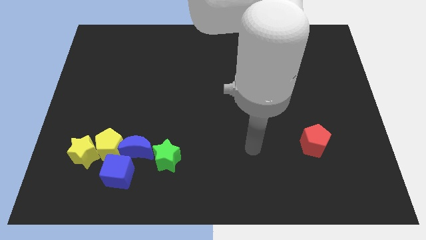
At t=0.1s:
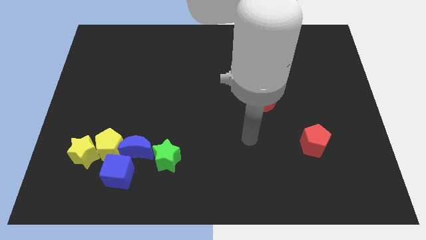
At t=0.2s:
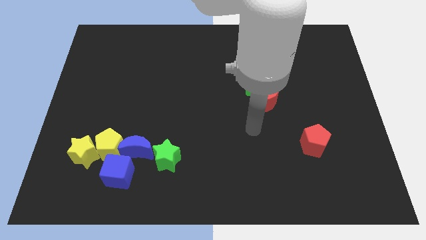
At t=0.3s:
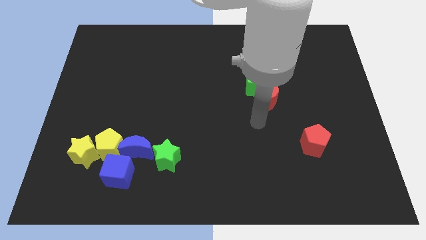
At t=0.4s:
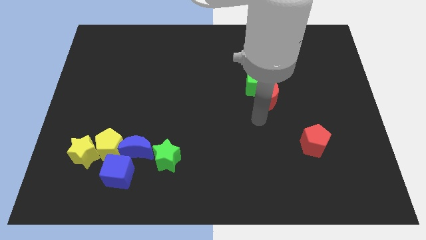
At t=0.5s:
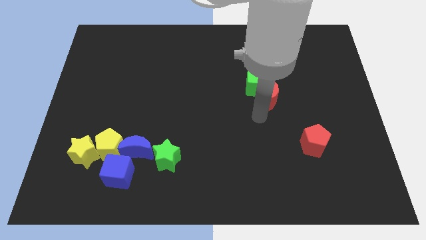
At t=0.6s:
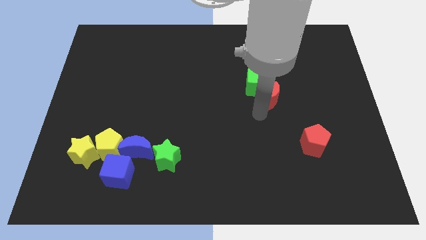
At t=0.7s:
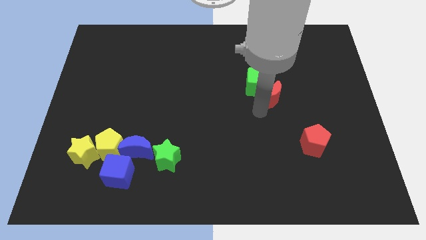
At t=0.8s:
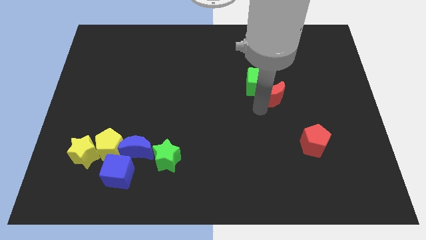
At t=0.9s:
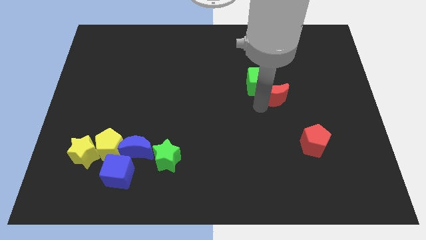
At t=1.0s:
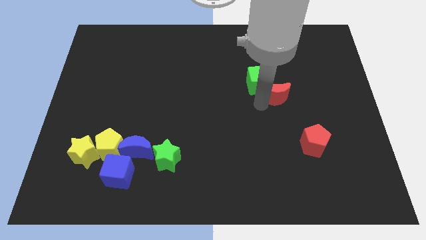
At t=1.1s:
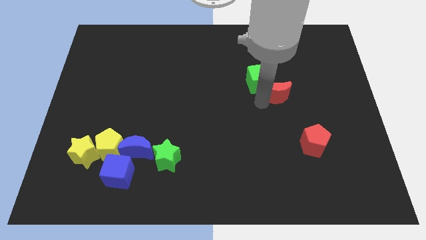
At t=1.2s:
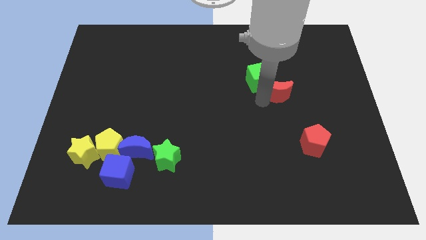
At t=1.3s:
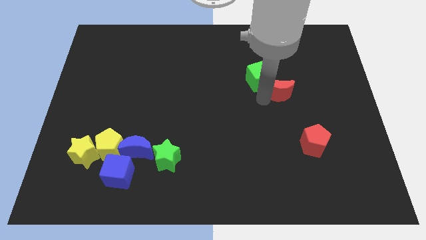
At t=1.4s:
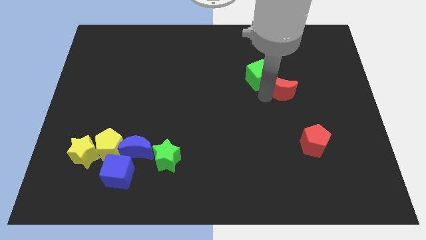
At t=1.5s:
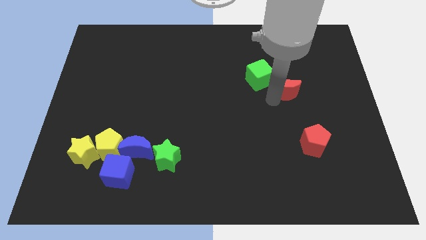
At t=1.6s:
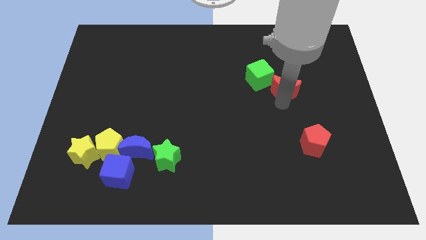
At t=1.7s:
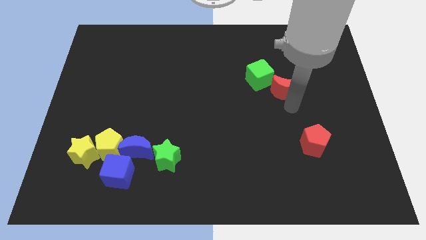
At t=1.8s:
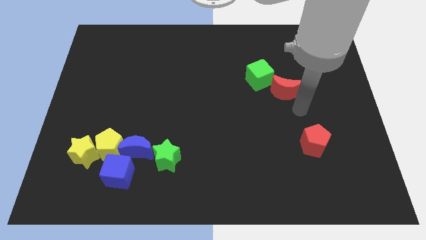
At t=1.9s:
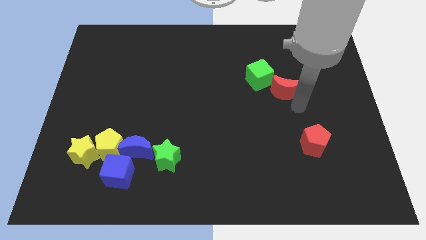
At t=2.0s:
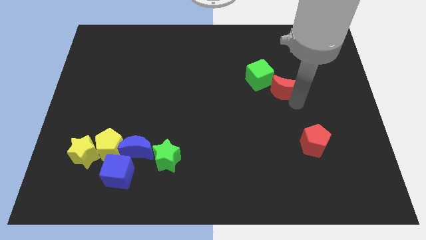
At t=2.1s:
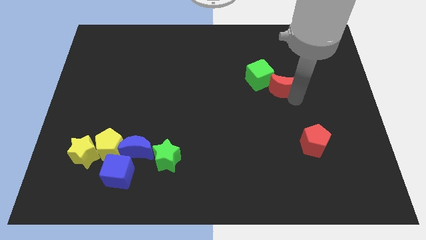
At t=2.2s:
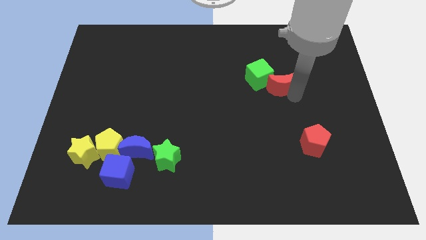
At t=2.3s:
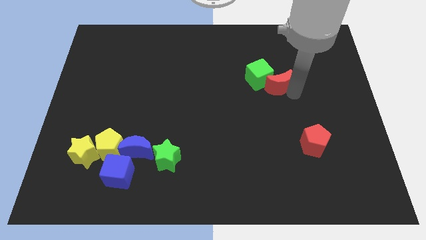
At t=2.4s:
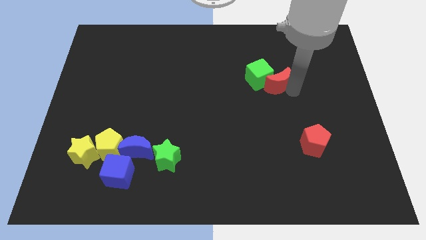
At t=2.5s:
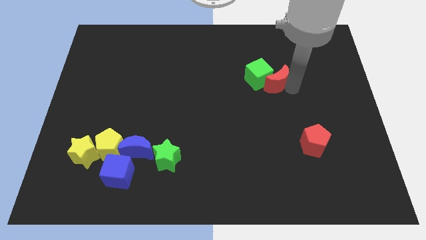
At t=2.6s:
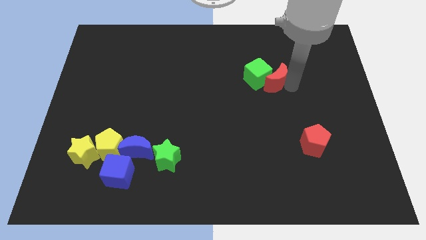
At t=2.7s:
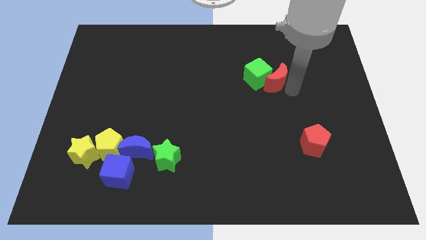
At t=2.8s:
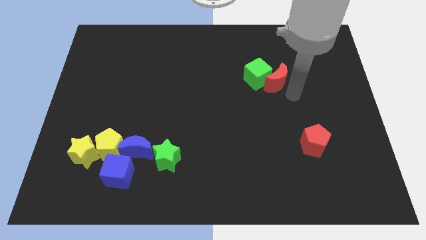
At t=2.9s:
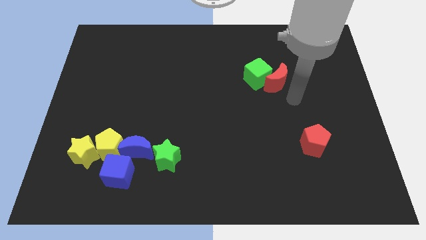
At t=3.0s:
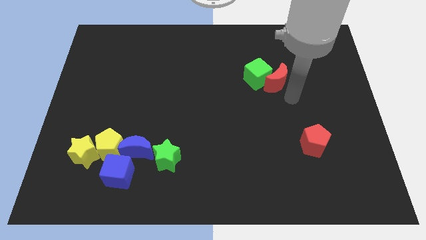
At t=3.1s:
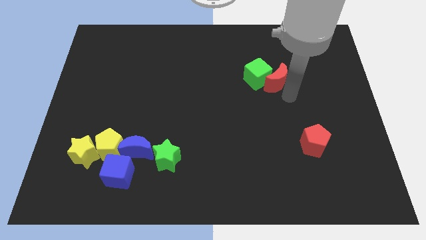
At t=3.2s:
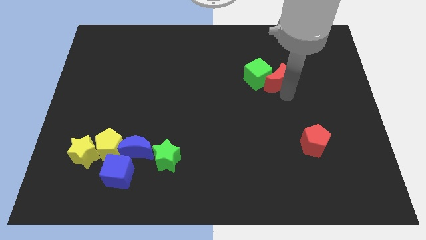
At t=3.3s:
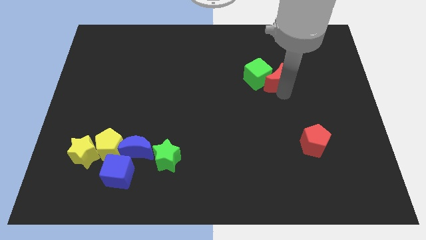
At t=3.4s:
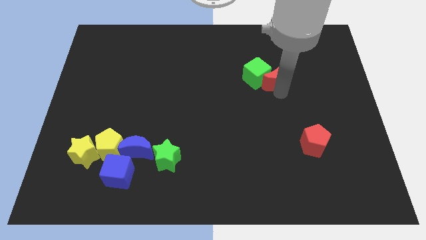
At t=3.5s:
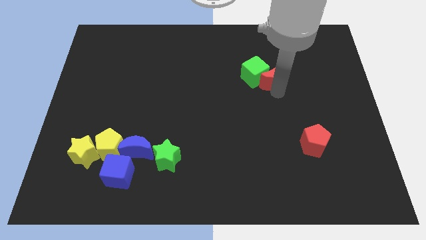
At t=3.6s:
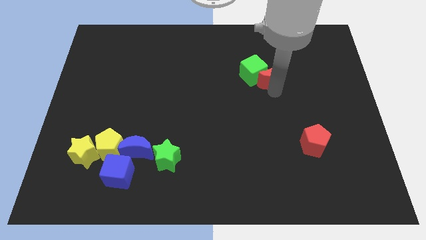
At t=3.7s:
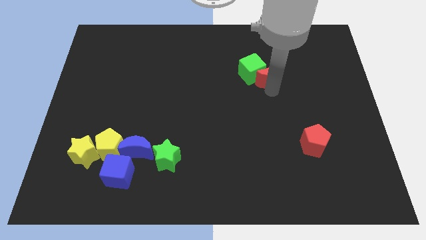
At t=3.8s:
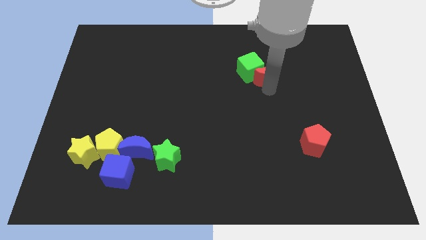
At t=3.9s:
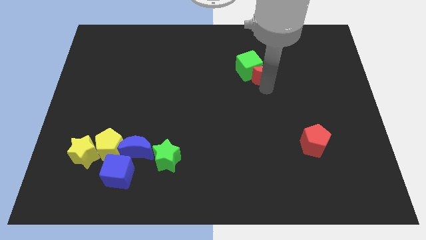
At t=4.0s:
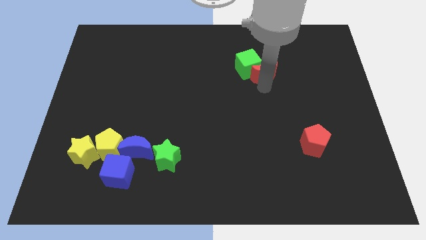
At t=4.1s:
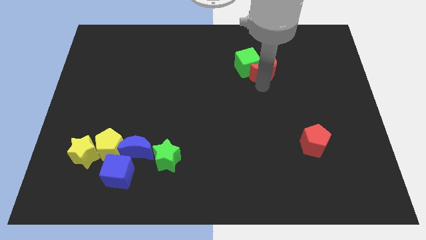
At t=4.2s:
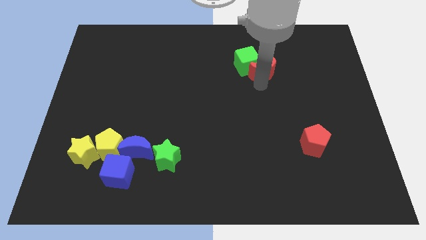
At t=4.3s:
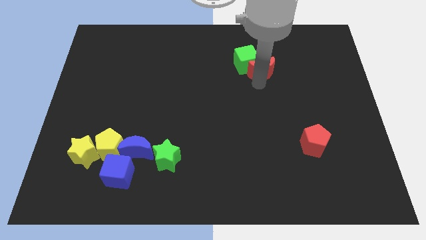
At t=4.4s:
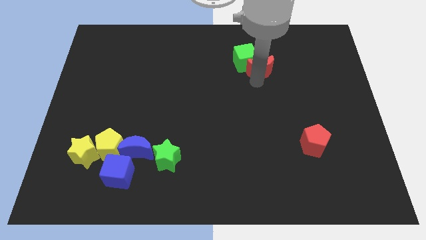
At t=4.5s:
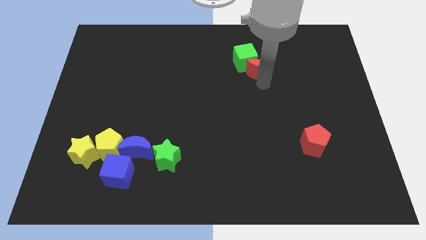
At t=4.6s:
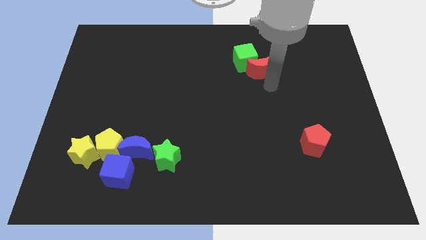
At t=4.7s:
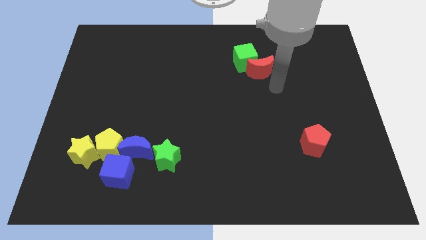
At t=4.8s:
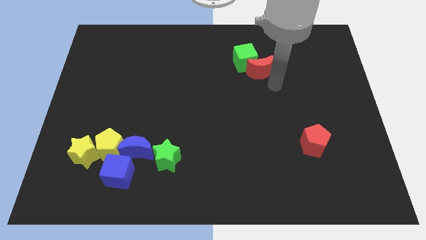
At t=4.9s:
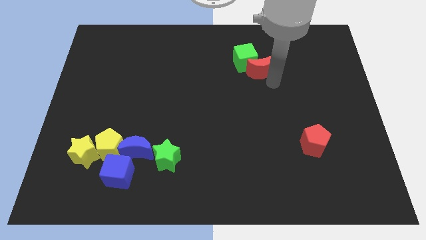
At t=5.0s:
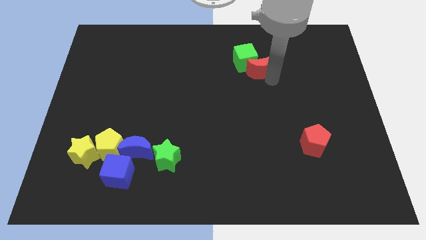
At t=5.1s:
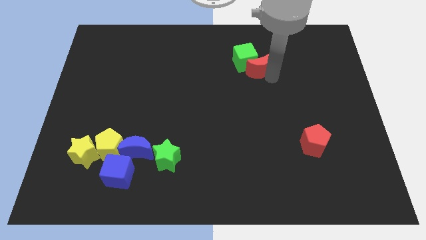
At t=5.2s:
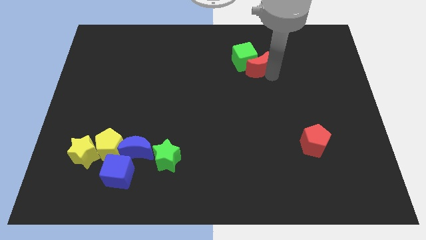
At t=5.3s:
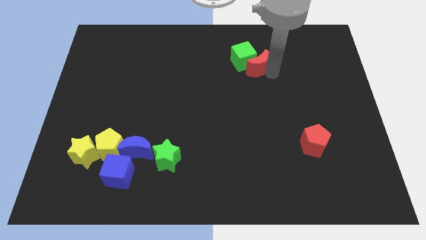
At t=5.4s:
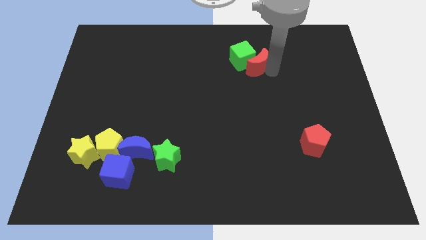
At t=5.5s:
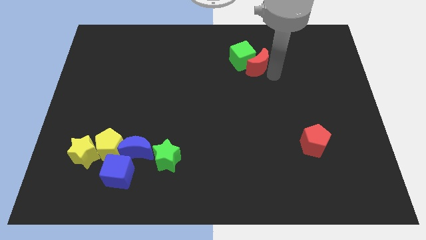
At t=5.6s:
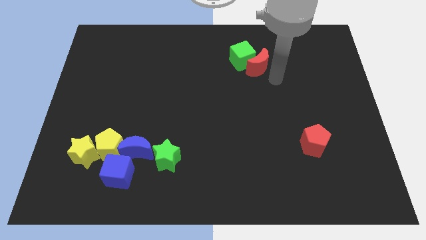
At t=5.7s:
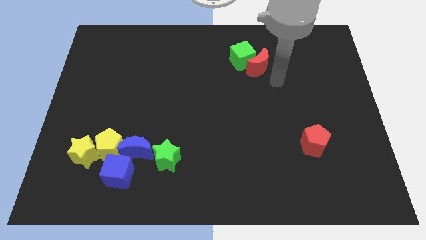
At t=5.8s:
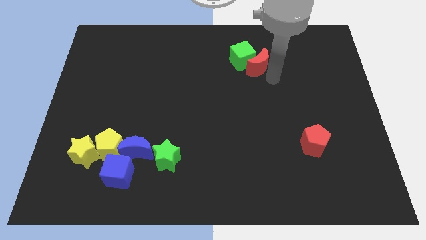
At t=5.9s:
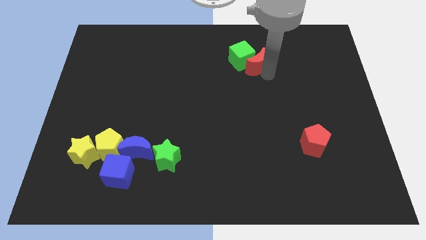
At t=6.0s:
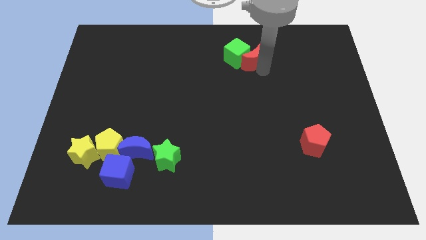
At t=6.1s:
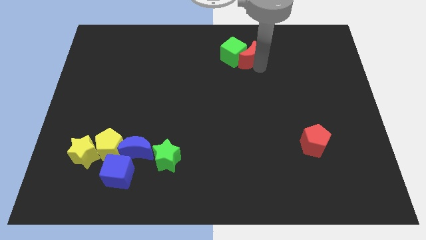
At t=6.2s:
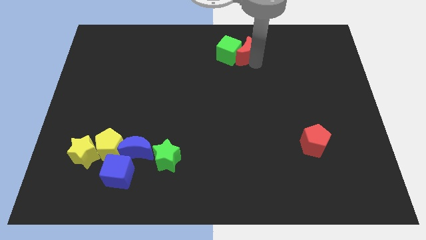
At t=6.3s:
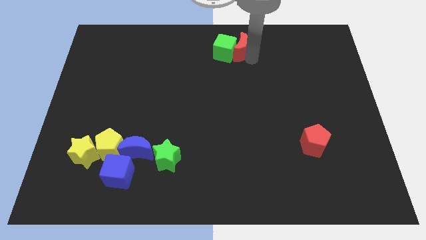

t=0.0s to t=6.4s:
put the red moon to the towards your base

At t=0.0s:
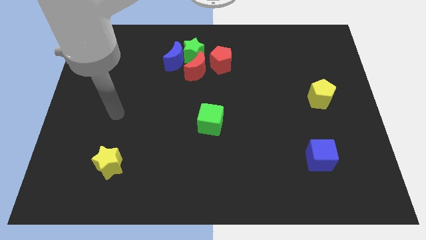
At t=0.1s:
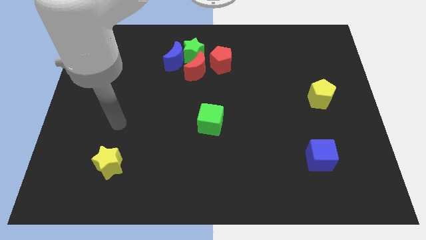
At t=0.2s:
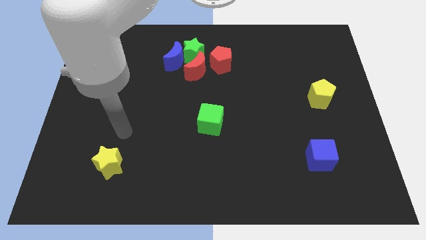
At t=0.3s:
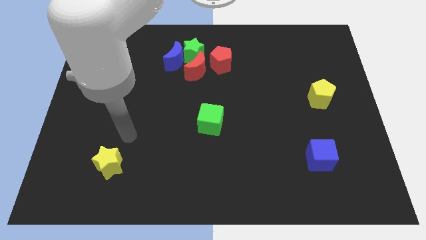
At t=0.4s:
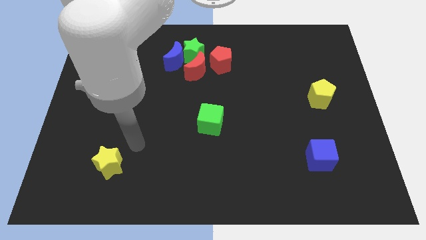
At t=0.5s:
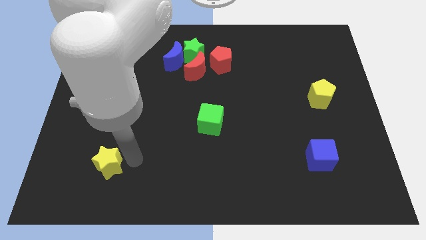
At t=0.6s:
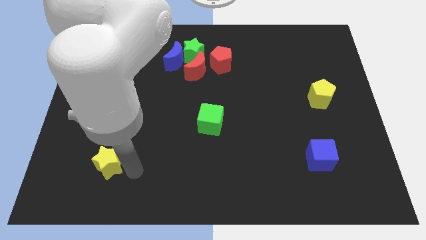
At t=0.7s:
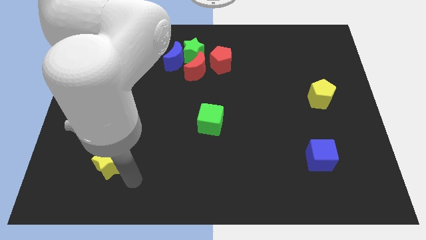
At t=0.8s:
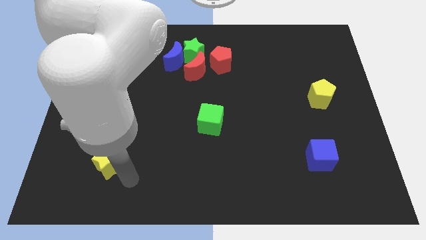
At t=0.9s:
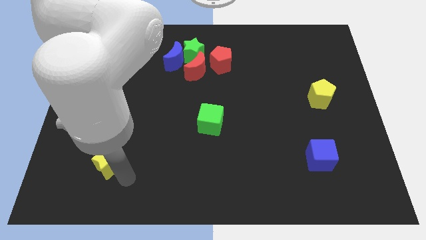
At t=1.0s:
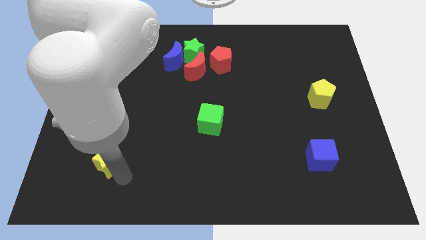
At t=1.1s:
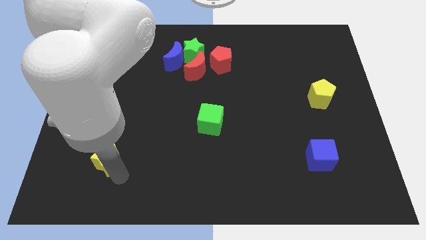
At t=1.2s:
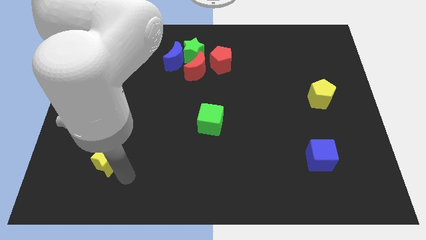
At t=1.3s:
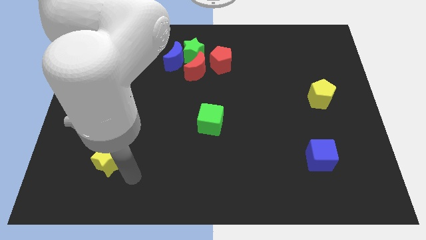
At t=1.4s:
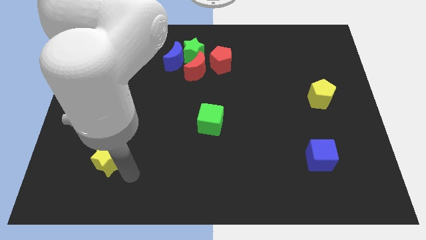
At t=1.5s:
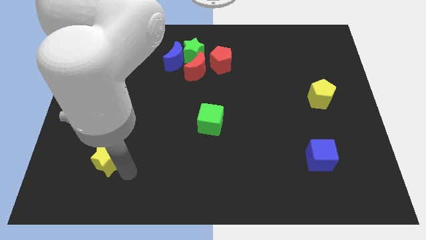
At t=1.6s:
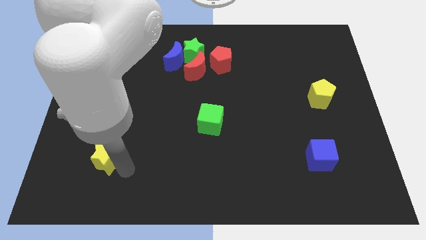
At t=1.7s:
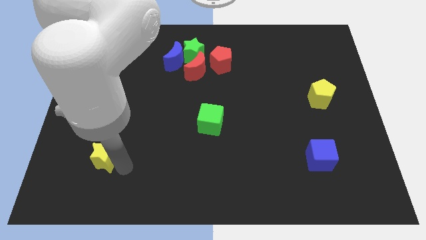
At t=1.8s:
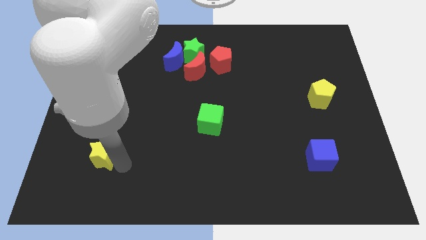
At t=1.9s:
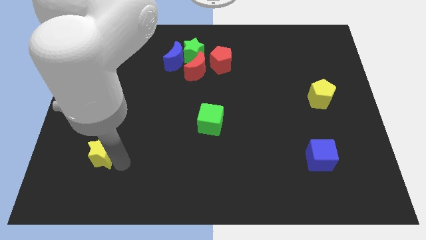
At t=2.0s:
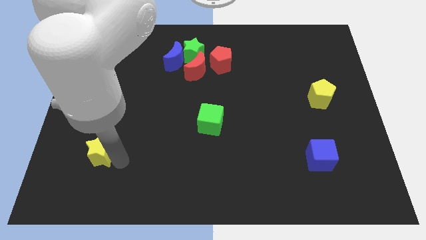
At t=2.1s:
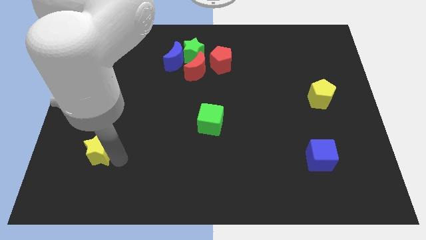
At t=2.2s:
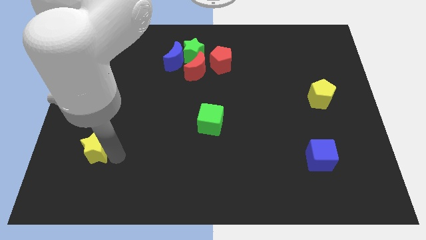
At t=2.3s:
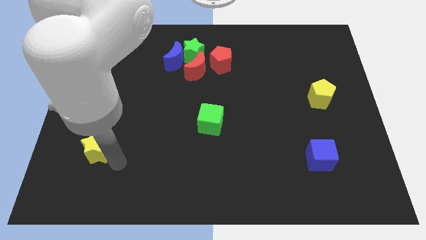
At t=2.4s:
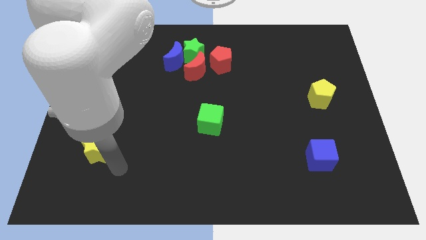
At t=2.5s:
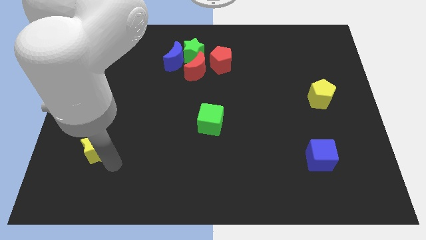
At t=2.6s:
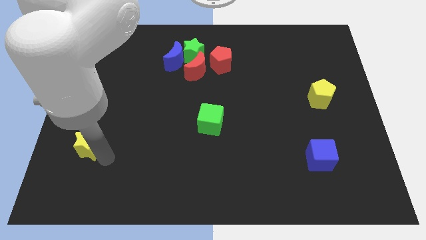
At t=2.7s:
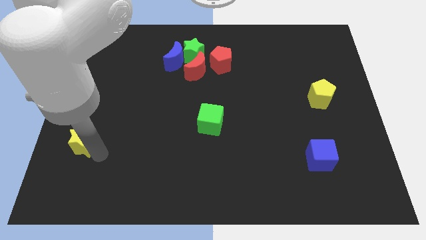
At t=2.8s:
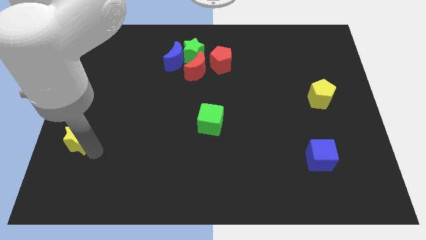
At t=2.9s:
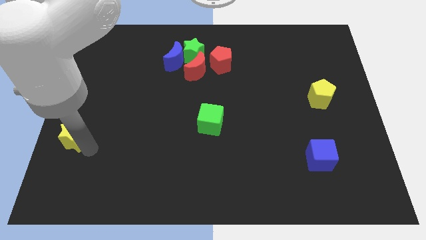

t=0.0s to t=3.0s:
put the yellow star to the left side of the board
